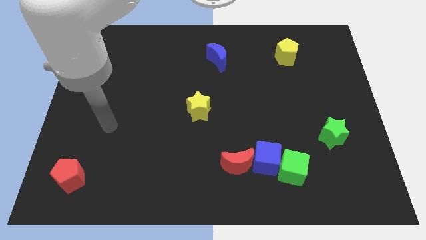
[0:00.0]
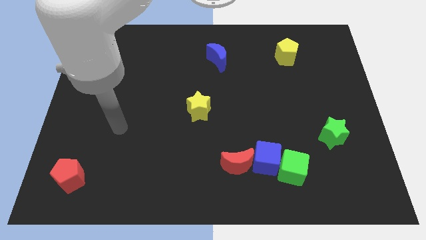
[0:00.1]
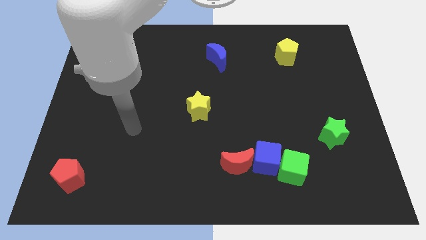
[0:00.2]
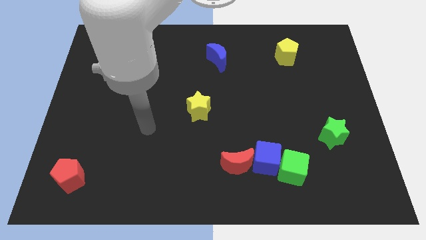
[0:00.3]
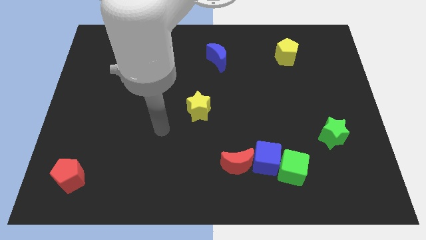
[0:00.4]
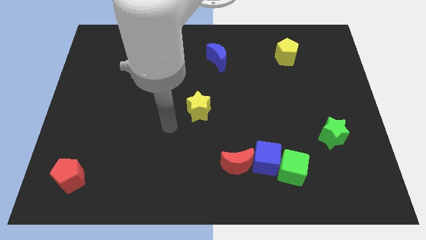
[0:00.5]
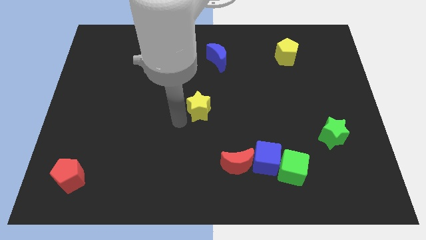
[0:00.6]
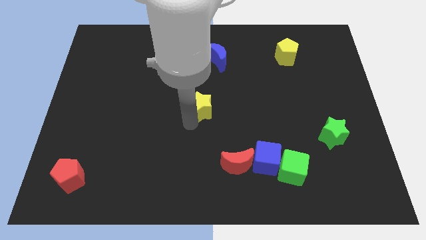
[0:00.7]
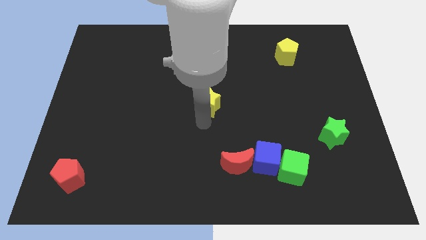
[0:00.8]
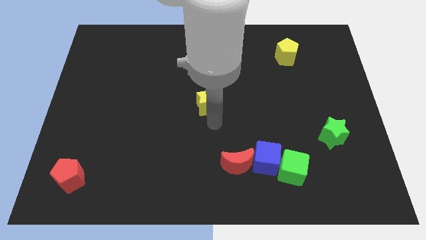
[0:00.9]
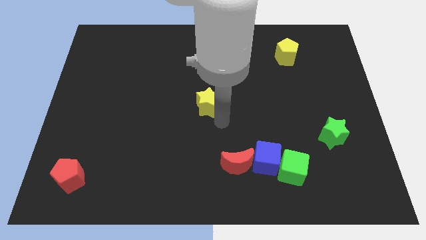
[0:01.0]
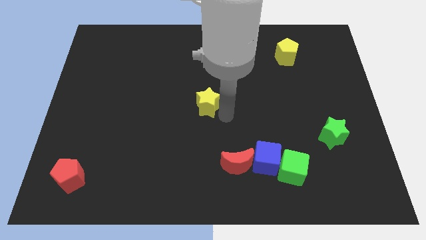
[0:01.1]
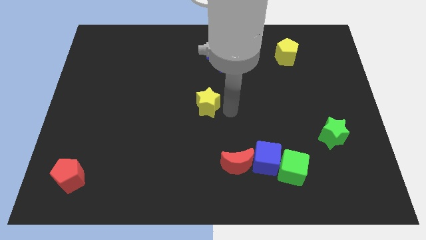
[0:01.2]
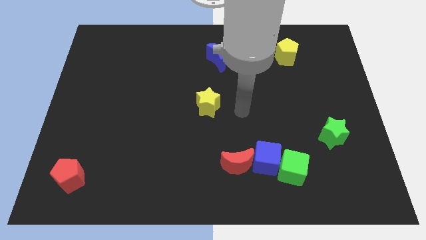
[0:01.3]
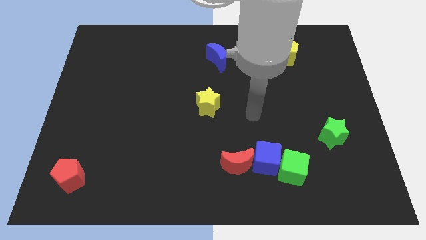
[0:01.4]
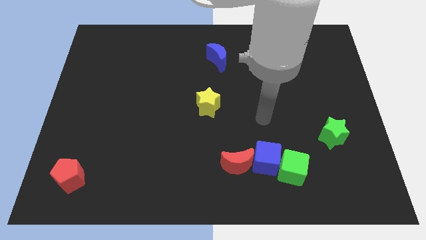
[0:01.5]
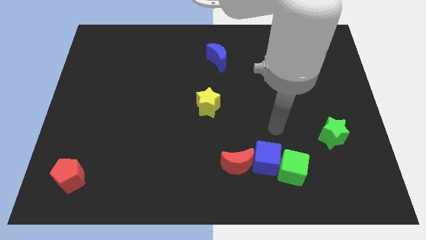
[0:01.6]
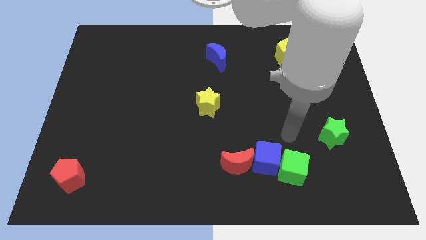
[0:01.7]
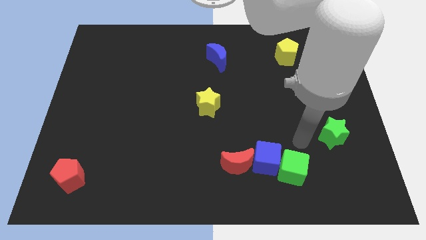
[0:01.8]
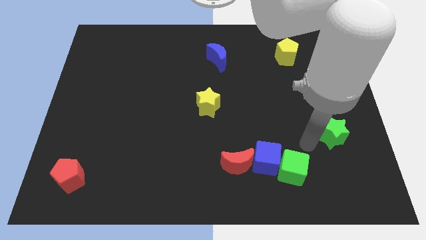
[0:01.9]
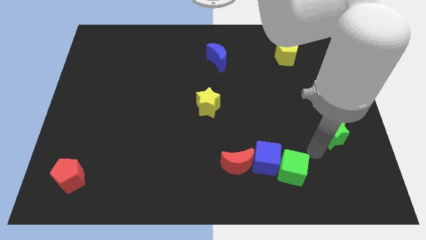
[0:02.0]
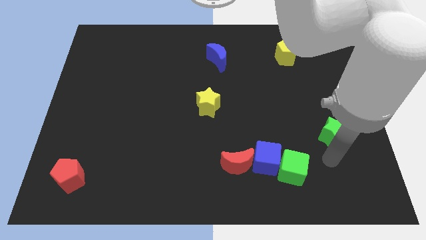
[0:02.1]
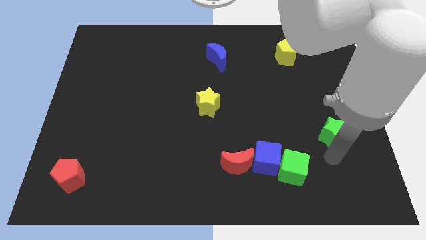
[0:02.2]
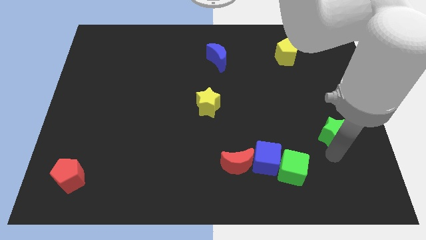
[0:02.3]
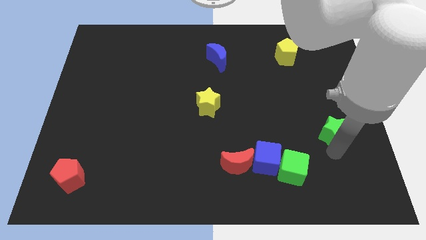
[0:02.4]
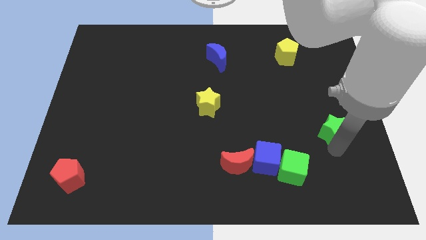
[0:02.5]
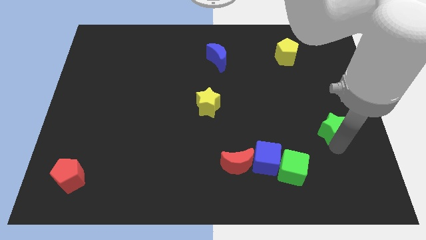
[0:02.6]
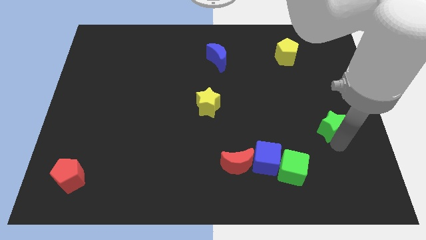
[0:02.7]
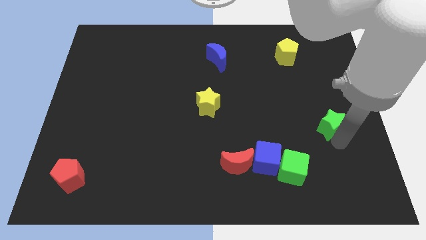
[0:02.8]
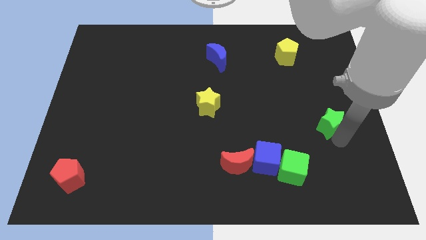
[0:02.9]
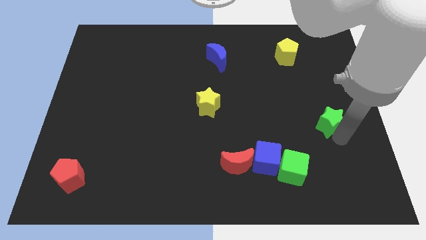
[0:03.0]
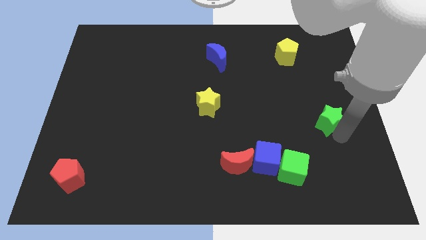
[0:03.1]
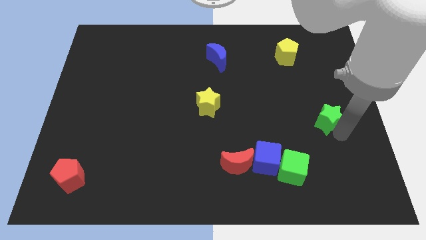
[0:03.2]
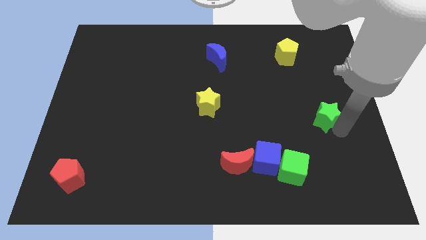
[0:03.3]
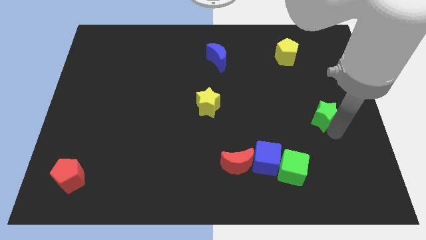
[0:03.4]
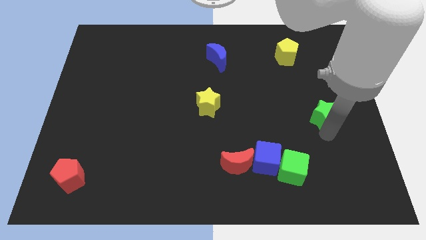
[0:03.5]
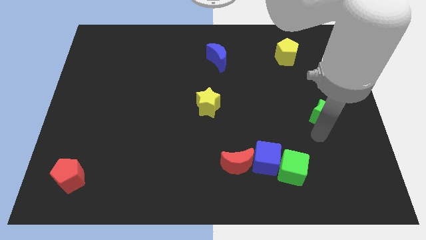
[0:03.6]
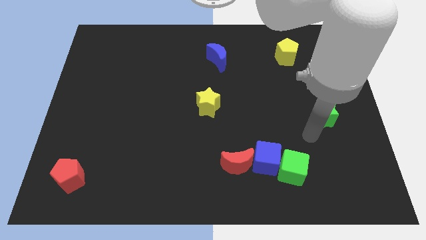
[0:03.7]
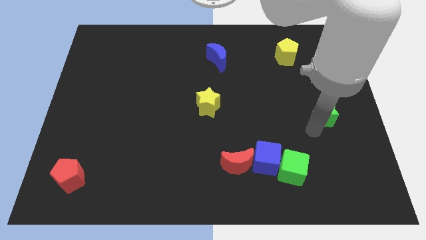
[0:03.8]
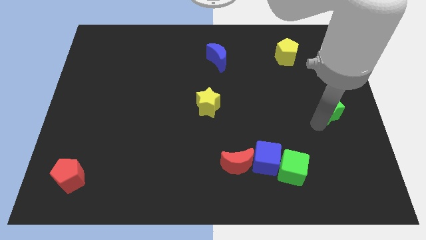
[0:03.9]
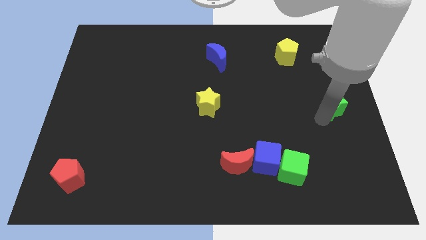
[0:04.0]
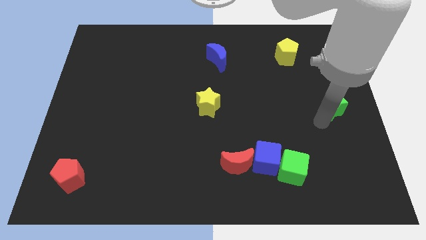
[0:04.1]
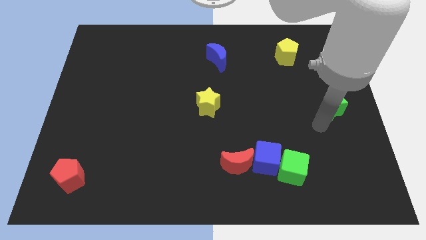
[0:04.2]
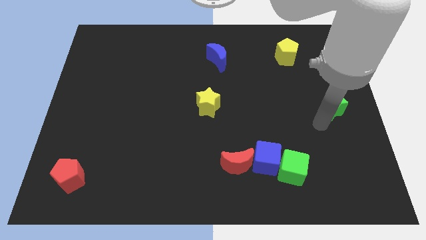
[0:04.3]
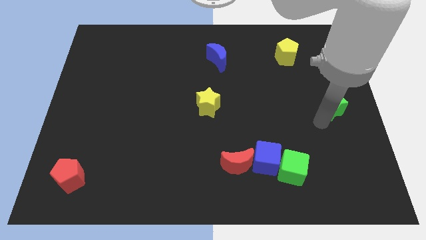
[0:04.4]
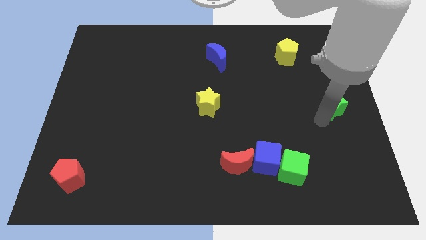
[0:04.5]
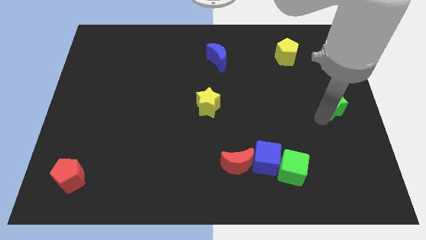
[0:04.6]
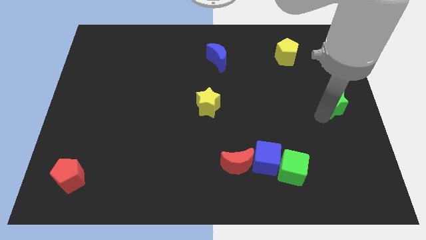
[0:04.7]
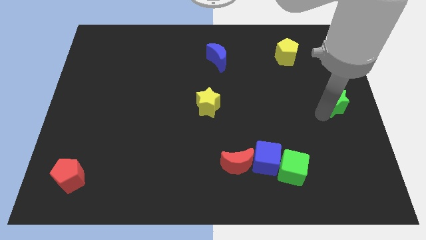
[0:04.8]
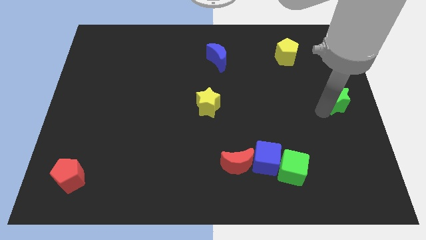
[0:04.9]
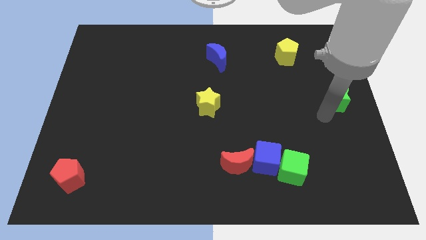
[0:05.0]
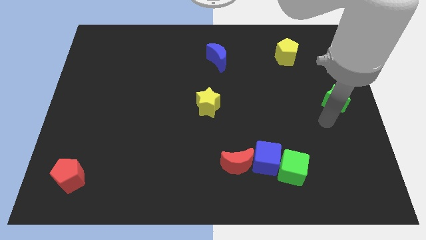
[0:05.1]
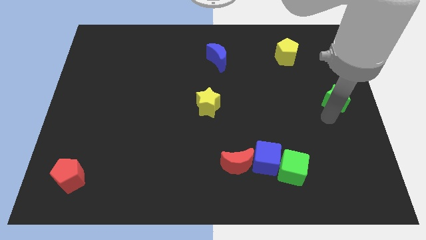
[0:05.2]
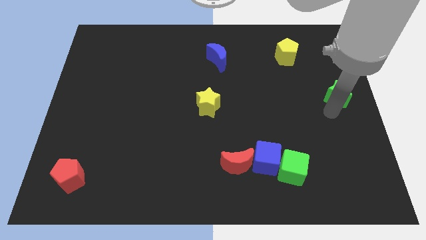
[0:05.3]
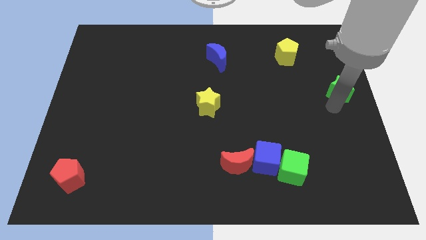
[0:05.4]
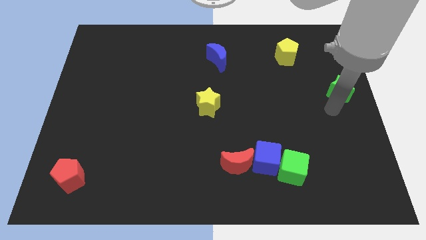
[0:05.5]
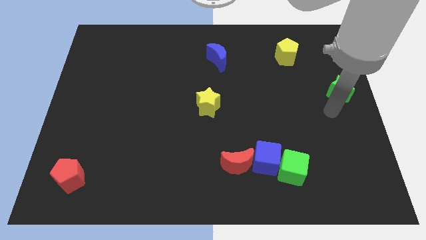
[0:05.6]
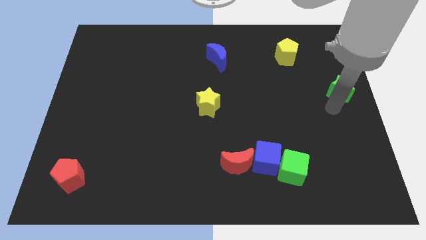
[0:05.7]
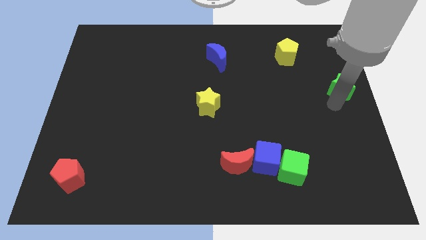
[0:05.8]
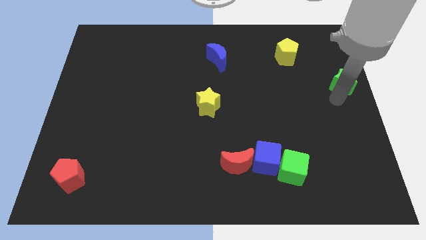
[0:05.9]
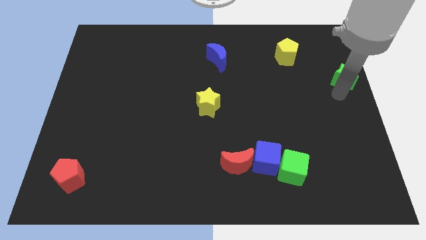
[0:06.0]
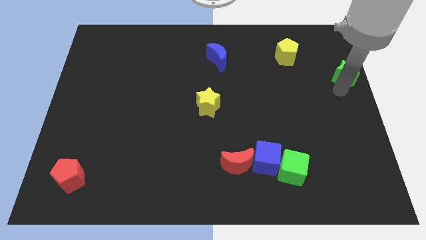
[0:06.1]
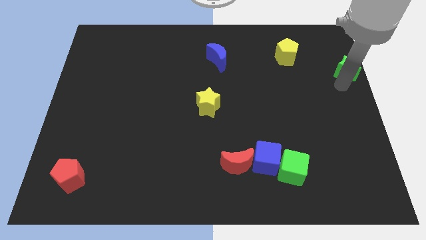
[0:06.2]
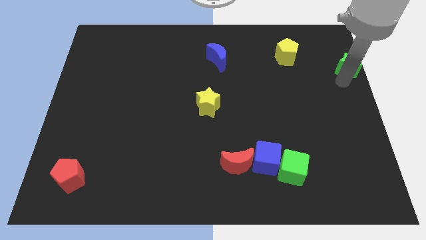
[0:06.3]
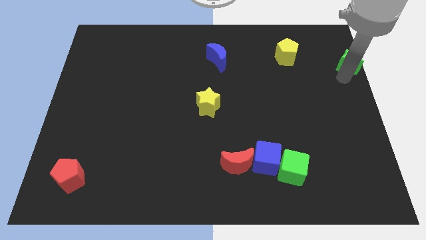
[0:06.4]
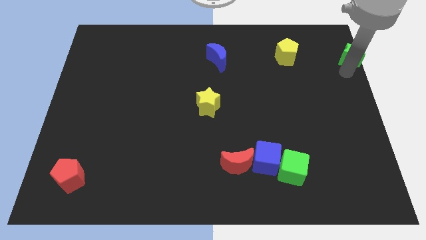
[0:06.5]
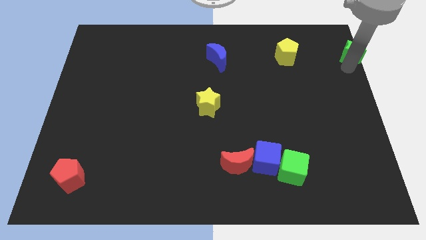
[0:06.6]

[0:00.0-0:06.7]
slide the green star to the top right of the board
